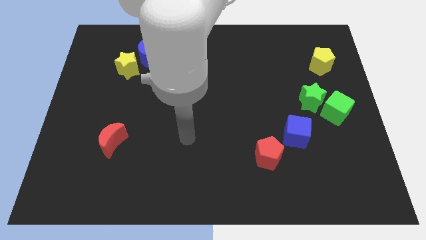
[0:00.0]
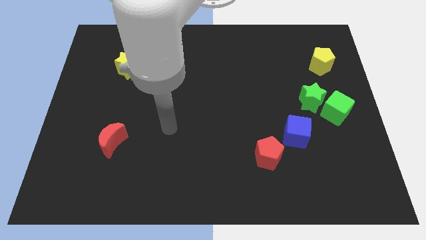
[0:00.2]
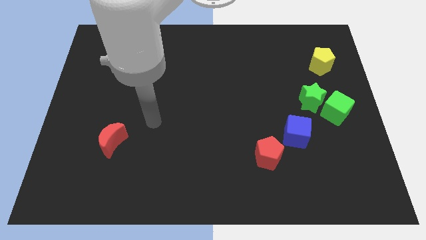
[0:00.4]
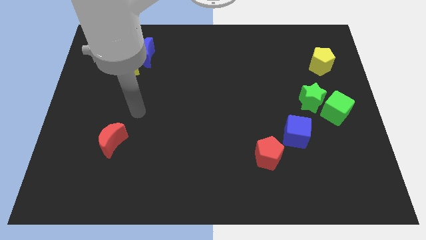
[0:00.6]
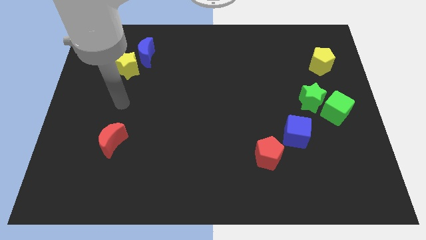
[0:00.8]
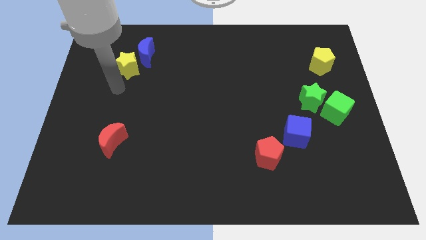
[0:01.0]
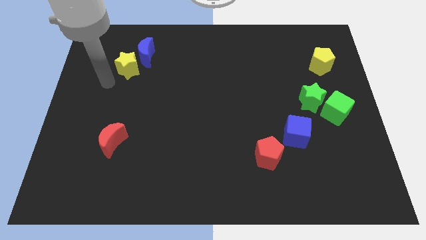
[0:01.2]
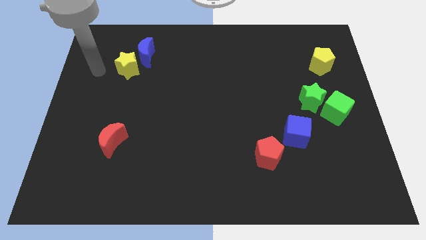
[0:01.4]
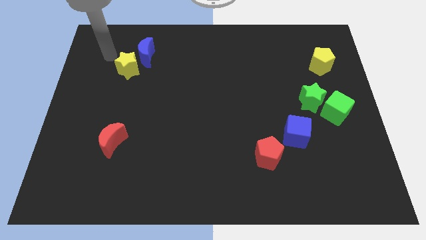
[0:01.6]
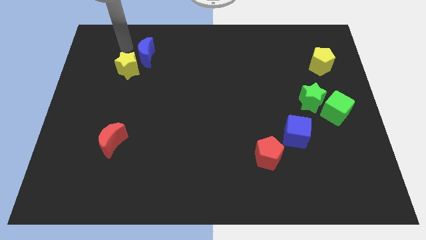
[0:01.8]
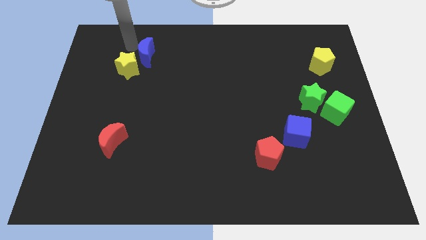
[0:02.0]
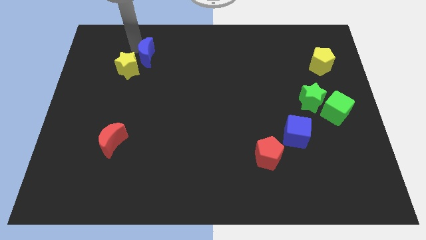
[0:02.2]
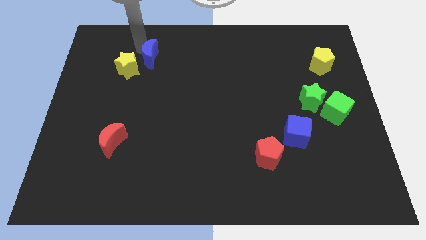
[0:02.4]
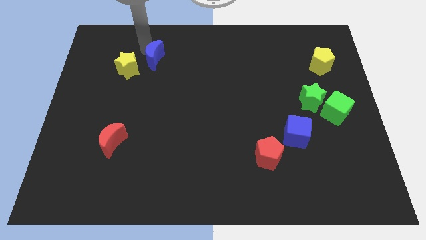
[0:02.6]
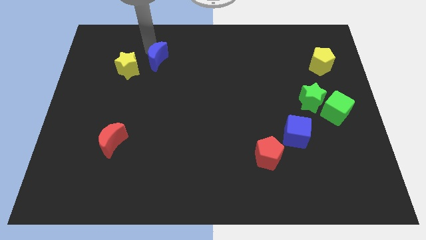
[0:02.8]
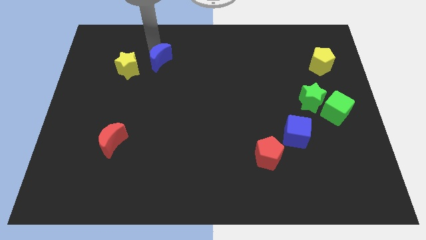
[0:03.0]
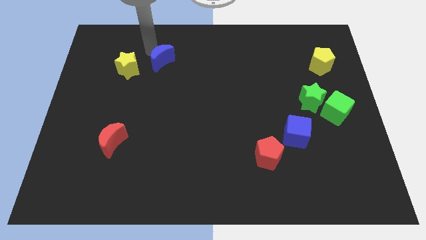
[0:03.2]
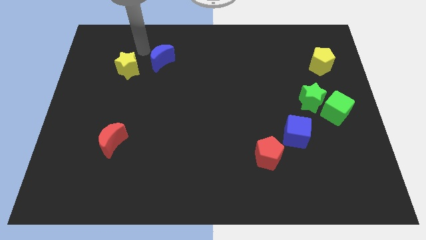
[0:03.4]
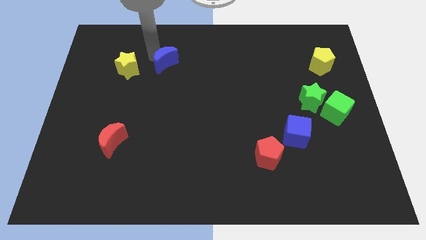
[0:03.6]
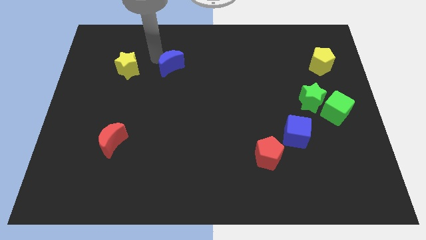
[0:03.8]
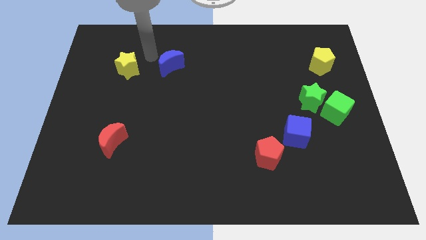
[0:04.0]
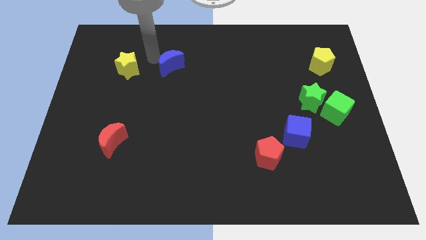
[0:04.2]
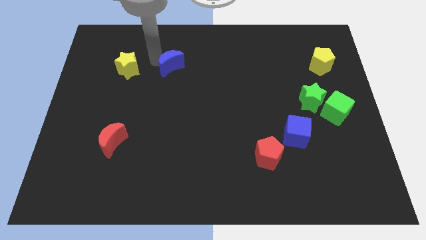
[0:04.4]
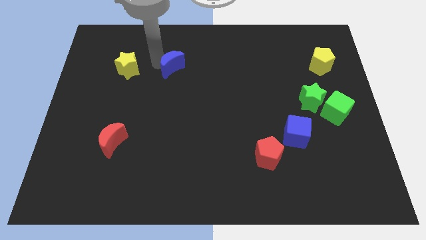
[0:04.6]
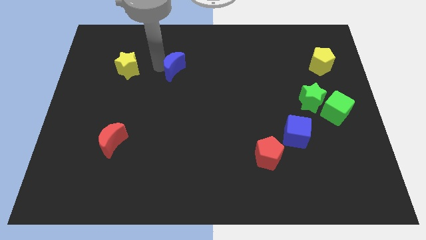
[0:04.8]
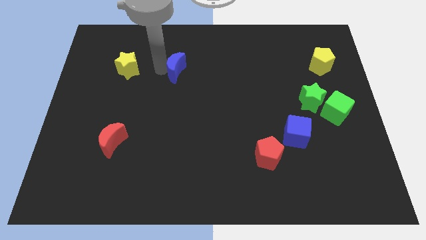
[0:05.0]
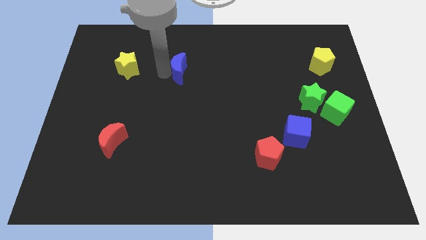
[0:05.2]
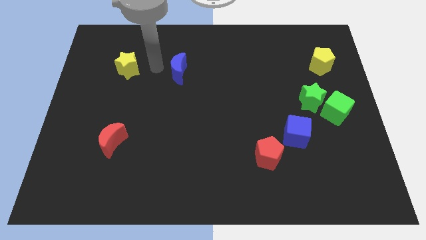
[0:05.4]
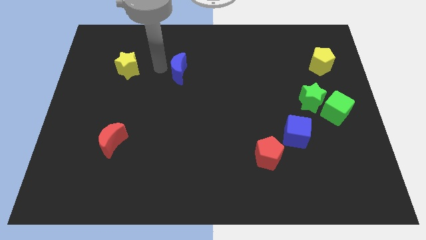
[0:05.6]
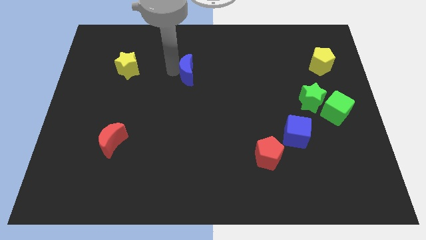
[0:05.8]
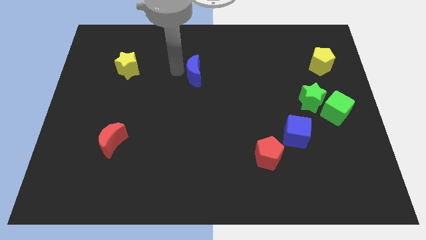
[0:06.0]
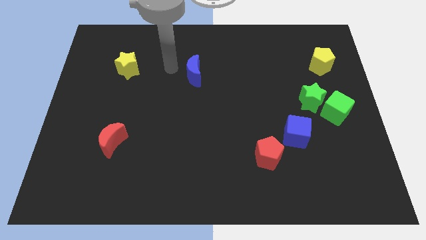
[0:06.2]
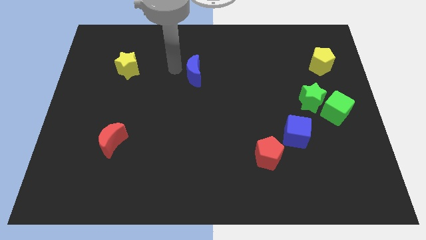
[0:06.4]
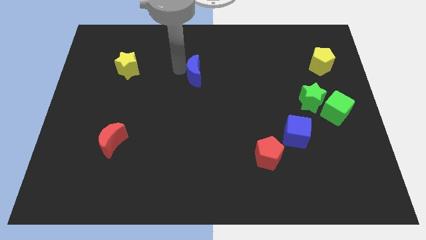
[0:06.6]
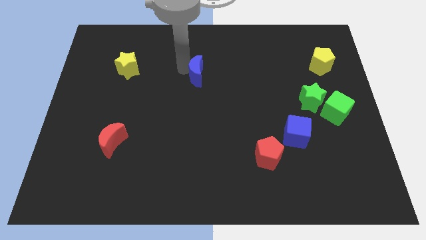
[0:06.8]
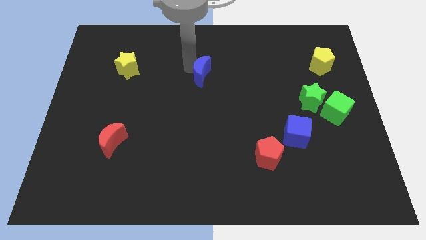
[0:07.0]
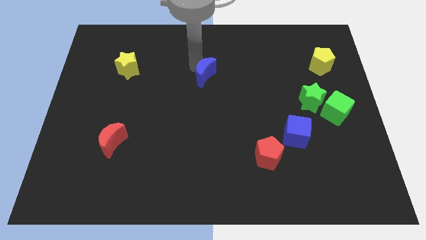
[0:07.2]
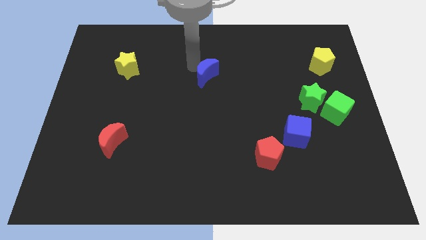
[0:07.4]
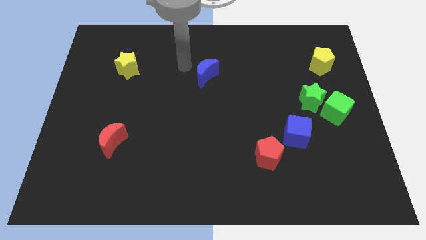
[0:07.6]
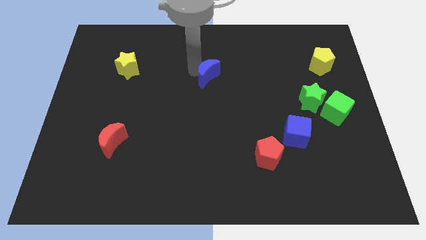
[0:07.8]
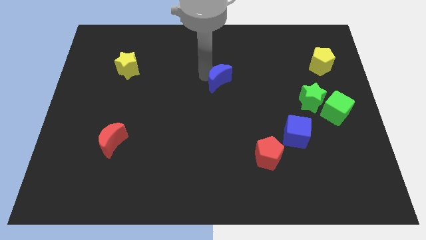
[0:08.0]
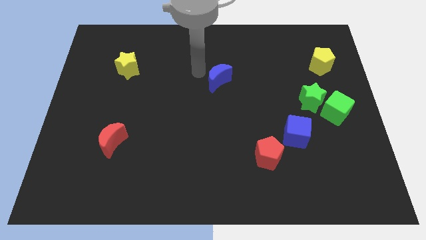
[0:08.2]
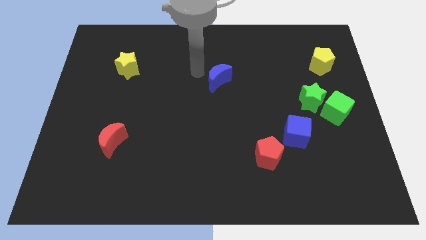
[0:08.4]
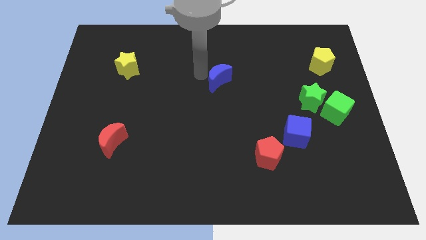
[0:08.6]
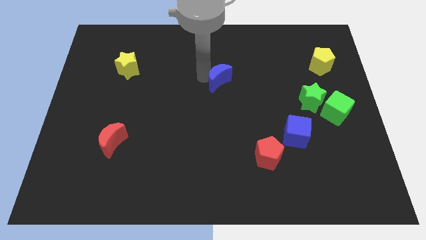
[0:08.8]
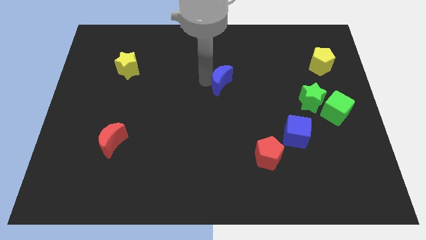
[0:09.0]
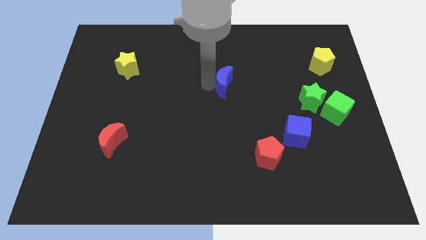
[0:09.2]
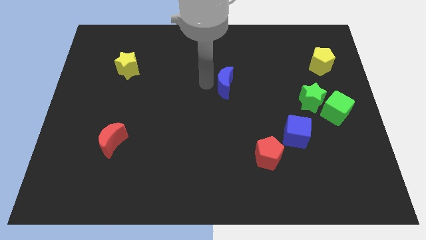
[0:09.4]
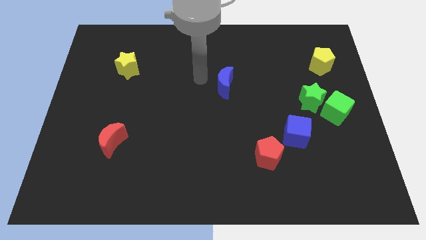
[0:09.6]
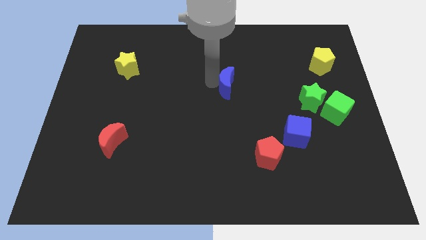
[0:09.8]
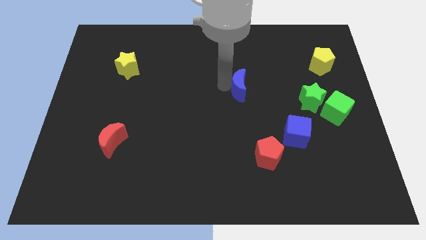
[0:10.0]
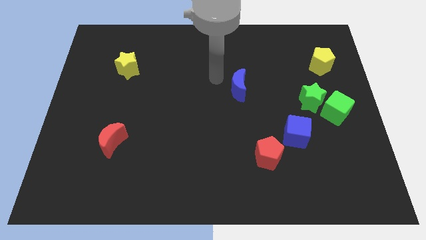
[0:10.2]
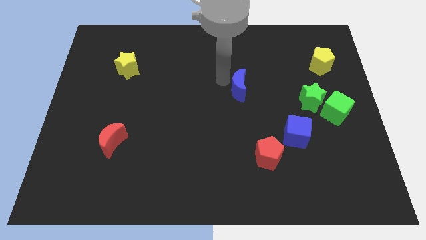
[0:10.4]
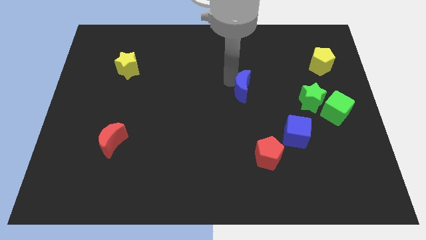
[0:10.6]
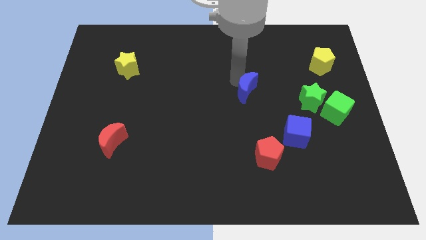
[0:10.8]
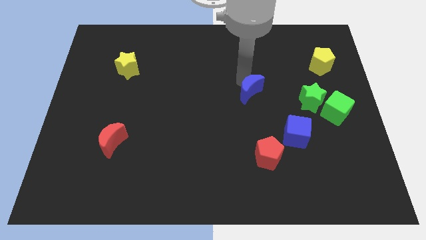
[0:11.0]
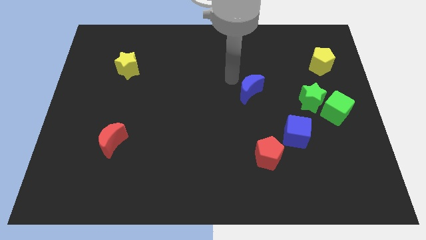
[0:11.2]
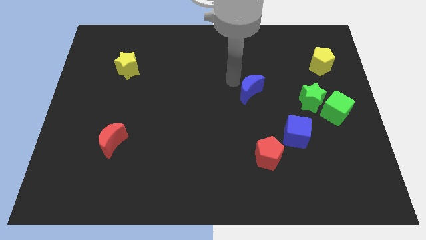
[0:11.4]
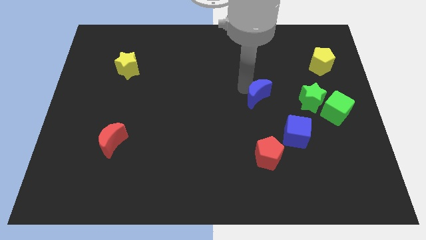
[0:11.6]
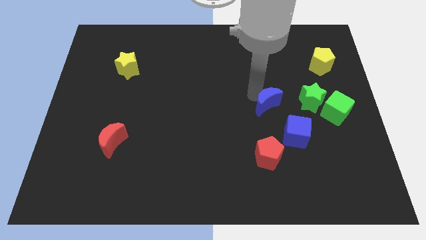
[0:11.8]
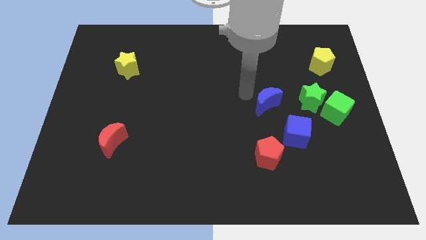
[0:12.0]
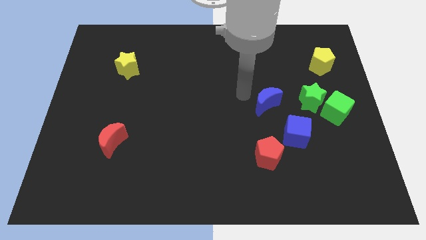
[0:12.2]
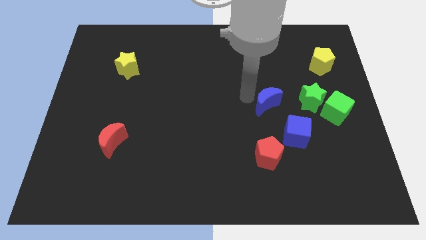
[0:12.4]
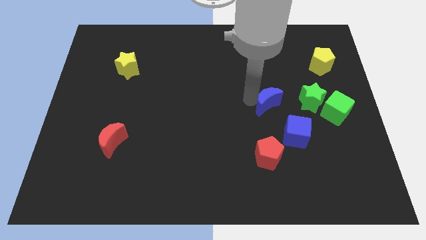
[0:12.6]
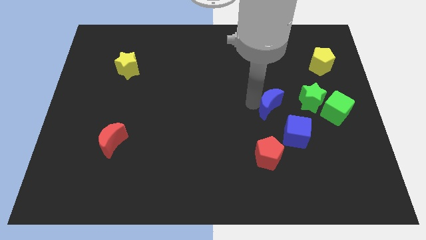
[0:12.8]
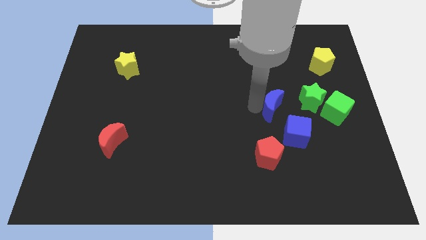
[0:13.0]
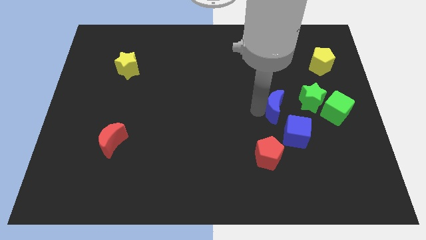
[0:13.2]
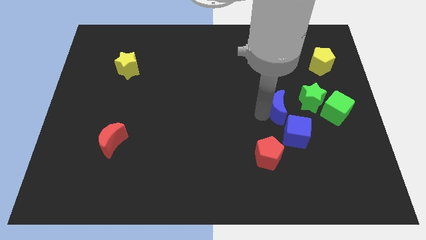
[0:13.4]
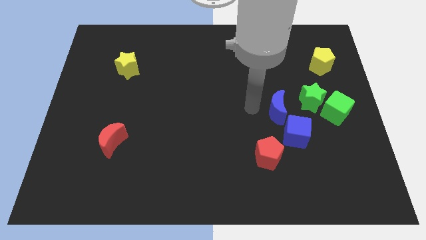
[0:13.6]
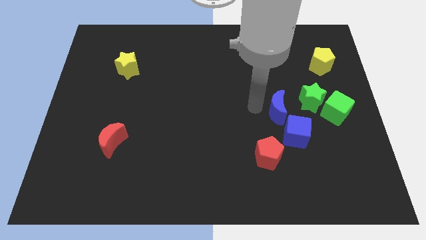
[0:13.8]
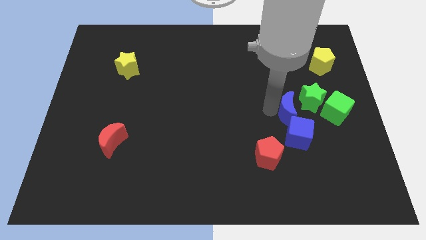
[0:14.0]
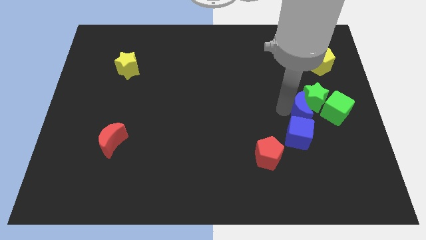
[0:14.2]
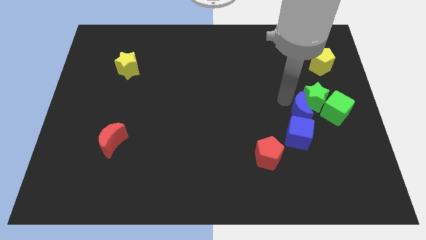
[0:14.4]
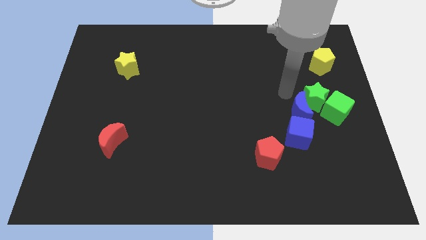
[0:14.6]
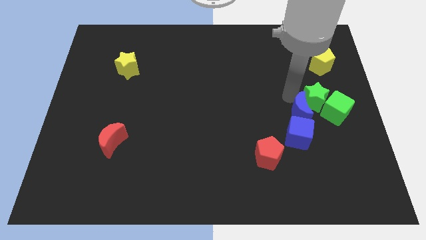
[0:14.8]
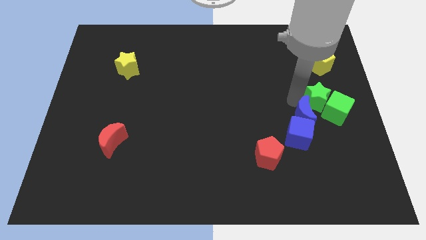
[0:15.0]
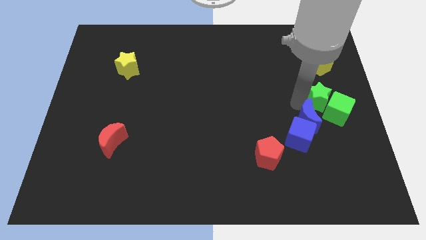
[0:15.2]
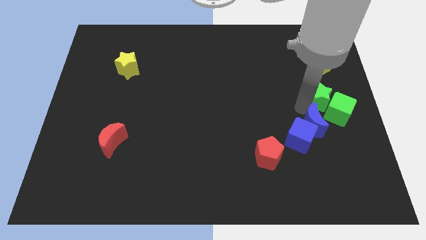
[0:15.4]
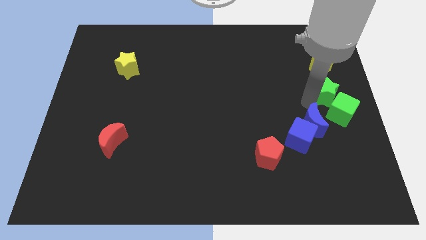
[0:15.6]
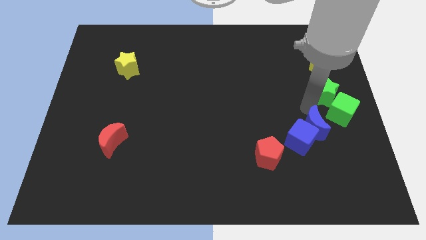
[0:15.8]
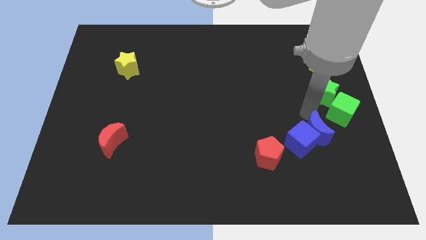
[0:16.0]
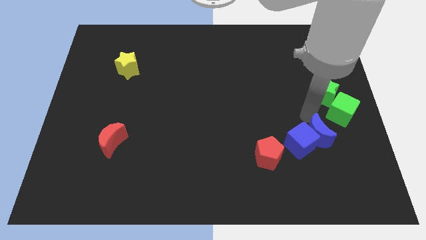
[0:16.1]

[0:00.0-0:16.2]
slide the blue moon just right of the red pentagon
